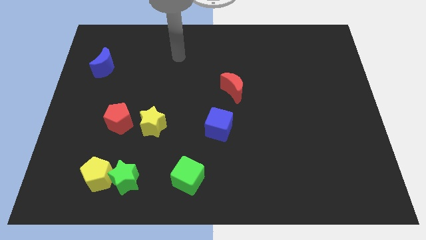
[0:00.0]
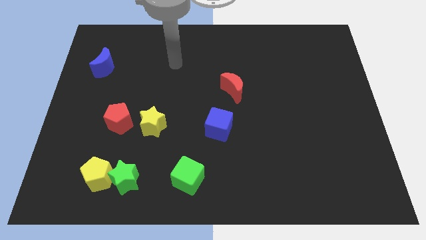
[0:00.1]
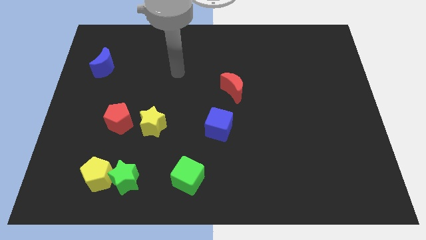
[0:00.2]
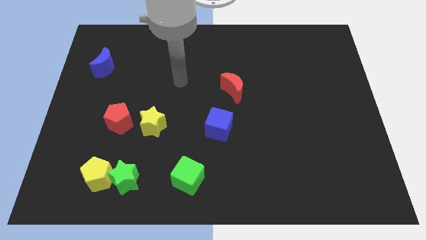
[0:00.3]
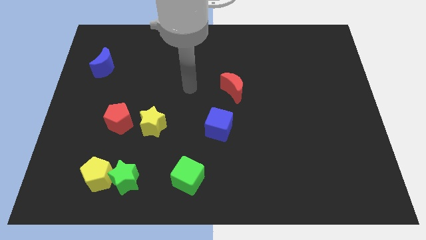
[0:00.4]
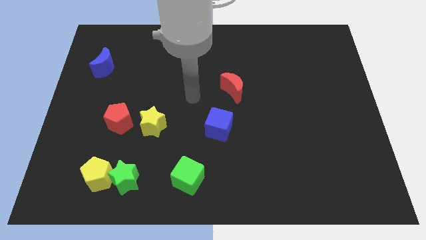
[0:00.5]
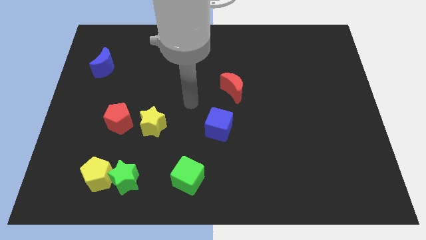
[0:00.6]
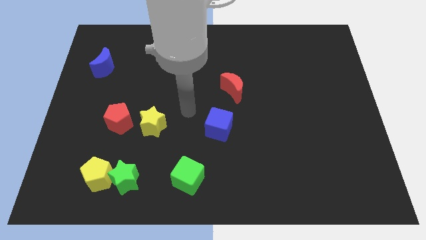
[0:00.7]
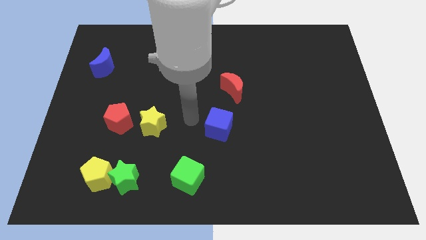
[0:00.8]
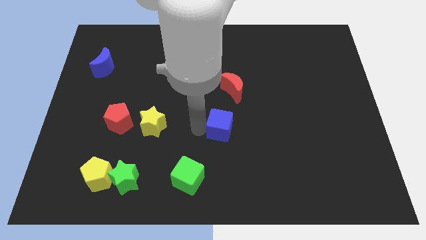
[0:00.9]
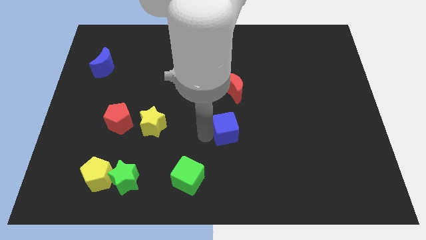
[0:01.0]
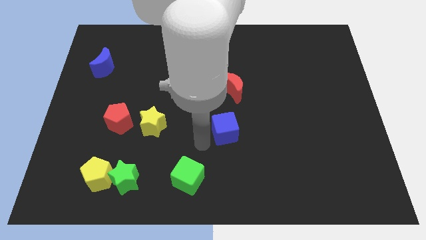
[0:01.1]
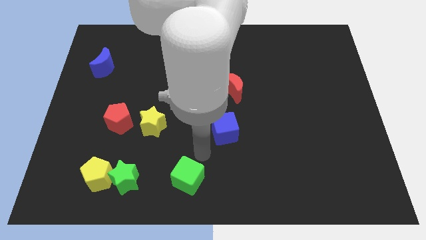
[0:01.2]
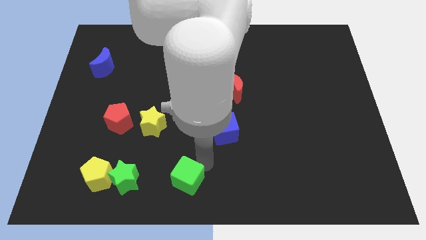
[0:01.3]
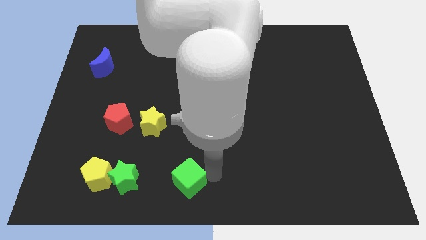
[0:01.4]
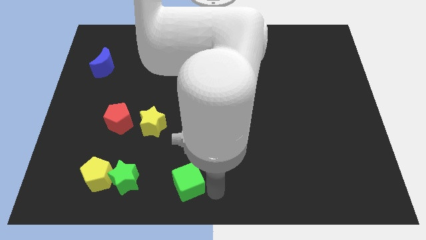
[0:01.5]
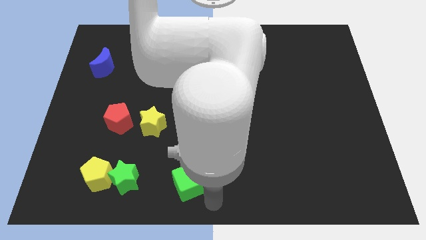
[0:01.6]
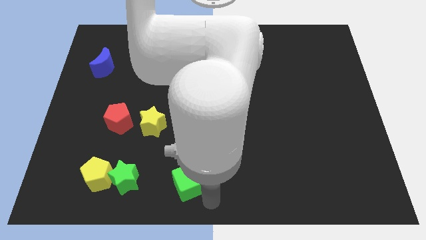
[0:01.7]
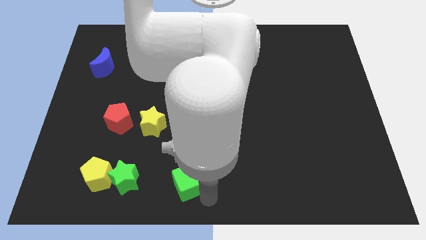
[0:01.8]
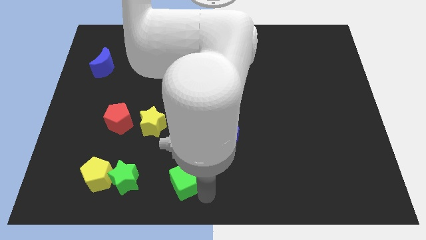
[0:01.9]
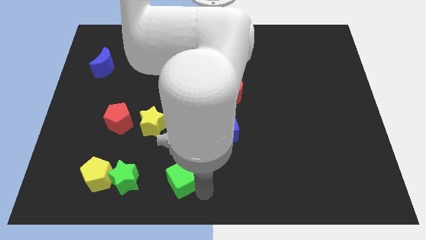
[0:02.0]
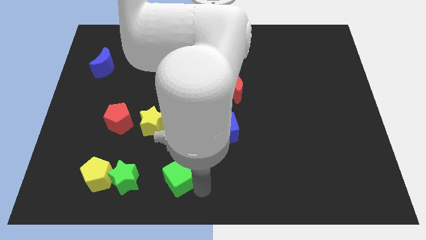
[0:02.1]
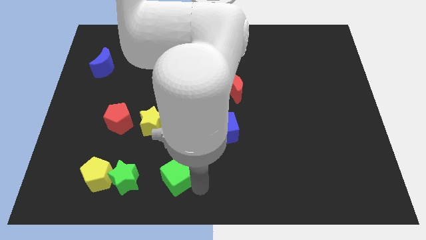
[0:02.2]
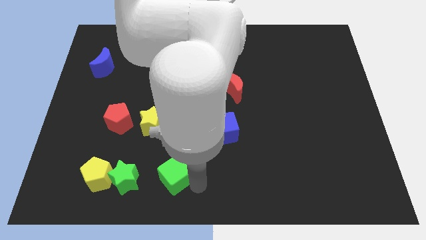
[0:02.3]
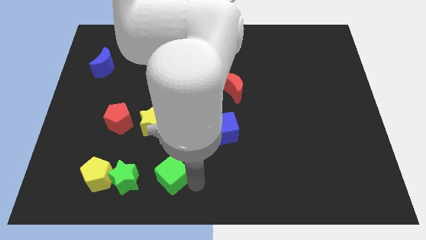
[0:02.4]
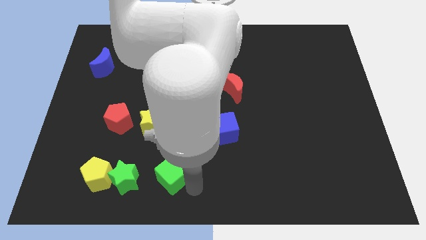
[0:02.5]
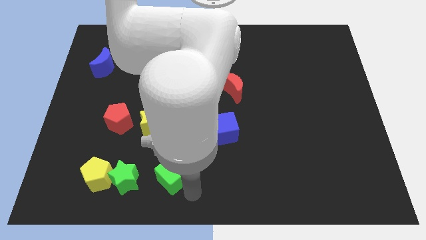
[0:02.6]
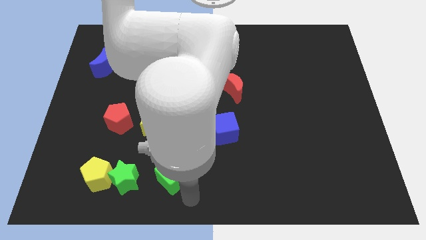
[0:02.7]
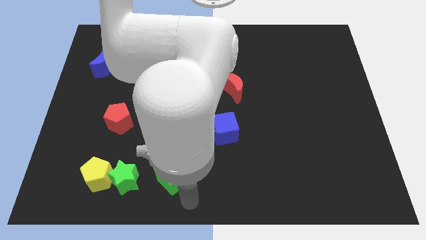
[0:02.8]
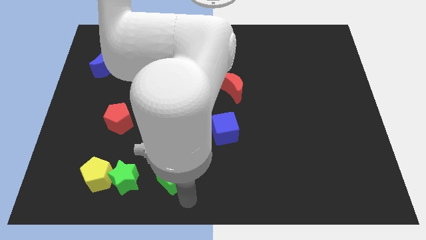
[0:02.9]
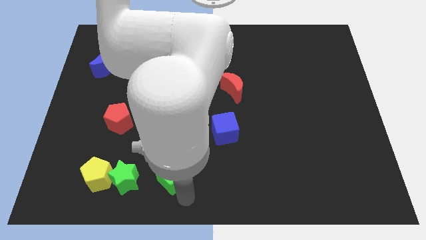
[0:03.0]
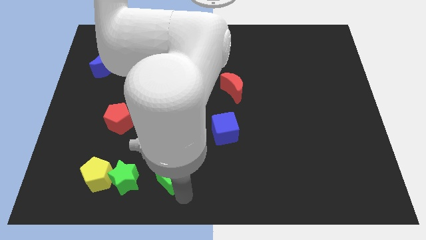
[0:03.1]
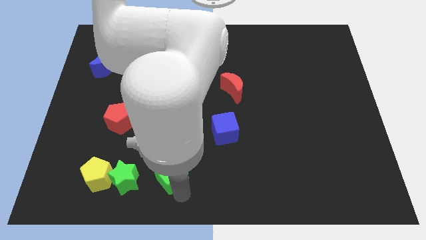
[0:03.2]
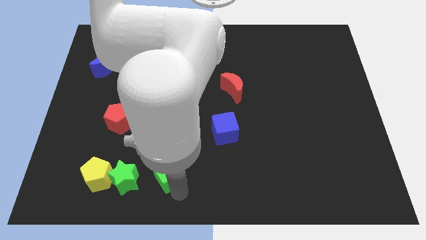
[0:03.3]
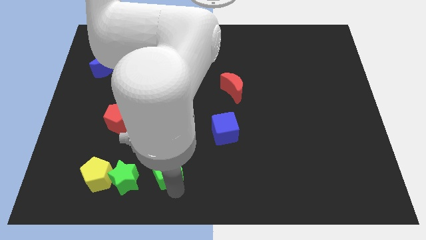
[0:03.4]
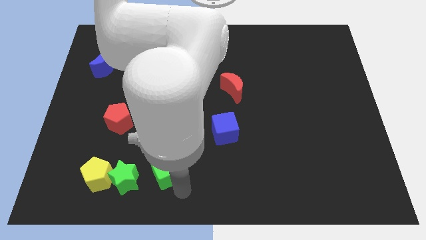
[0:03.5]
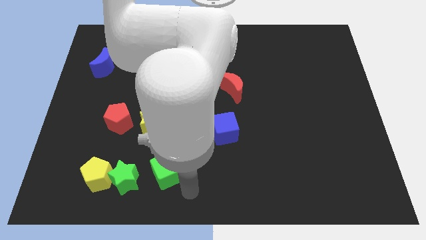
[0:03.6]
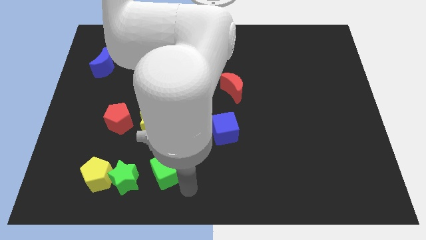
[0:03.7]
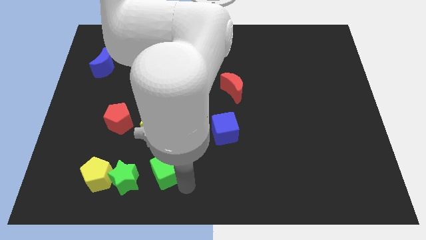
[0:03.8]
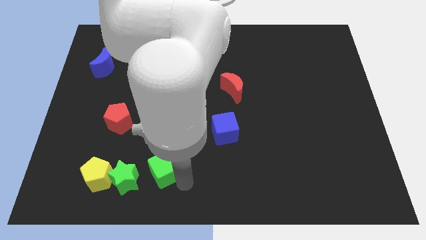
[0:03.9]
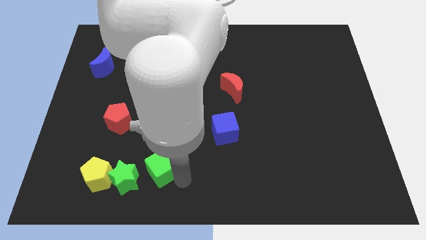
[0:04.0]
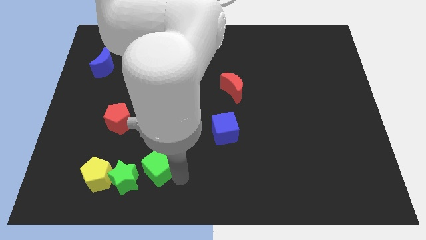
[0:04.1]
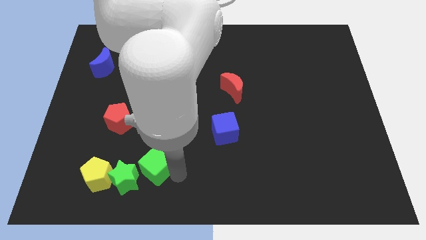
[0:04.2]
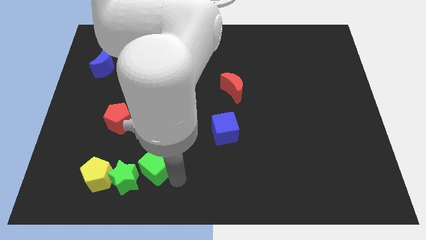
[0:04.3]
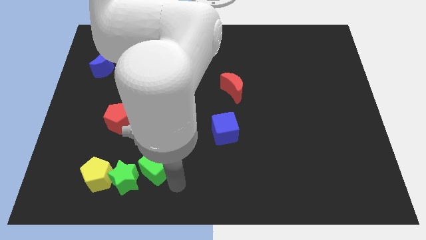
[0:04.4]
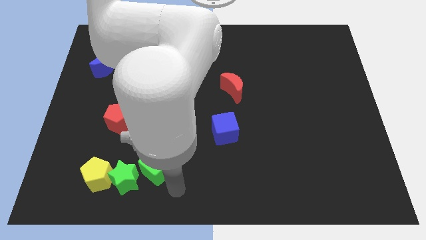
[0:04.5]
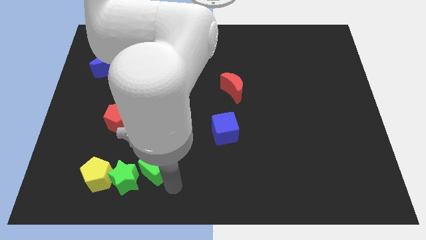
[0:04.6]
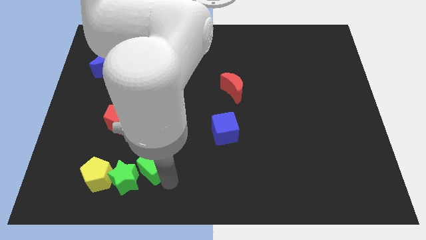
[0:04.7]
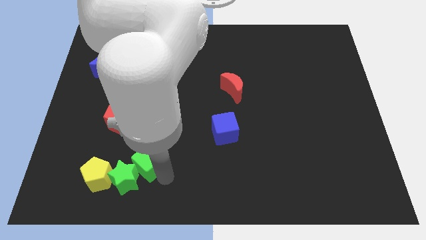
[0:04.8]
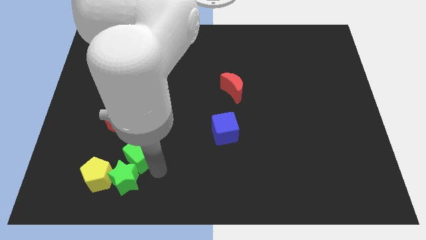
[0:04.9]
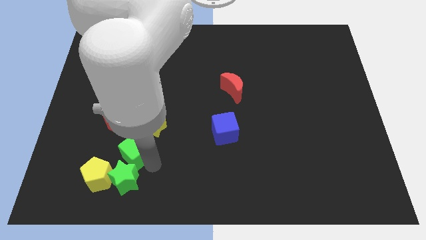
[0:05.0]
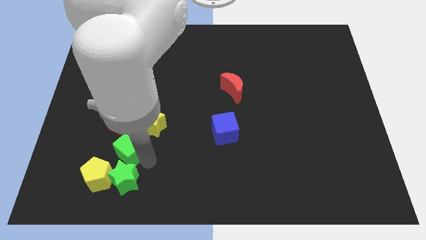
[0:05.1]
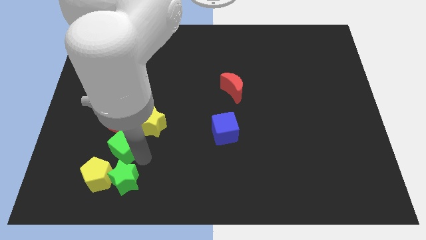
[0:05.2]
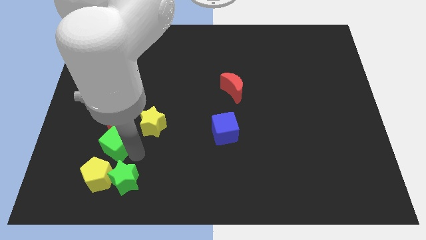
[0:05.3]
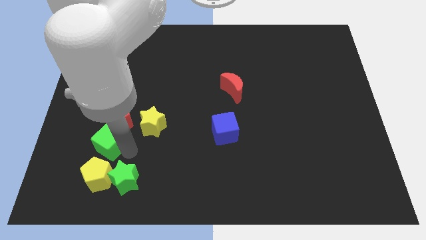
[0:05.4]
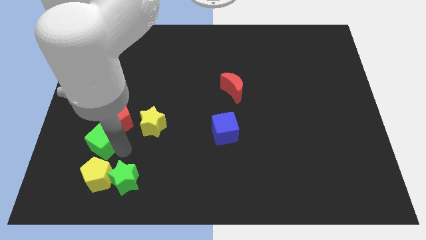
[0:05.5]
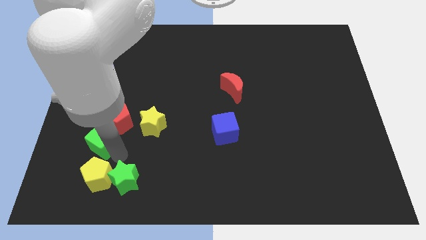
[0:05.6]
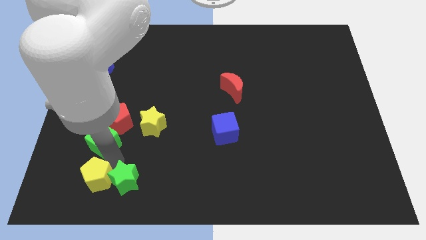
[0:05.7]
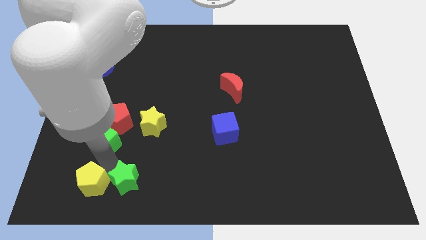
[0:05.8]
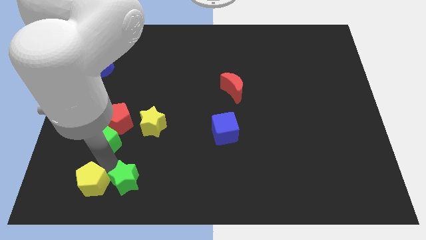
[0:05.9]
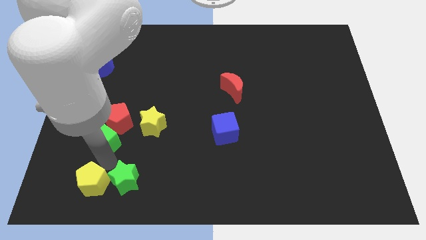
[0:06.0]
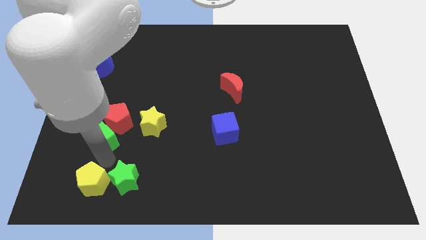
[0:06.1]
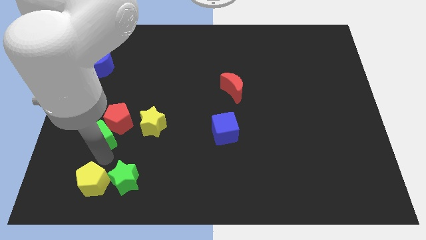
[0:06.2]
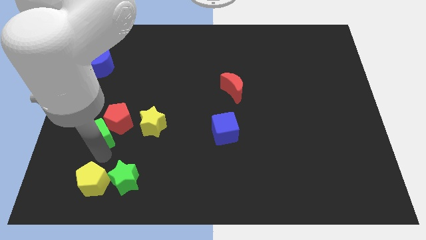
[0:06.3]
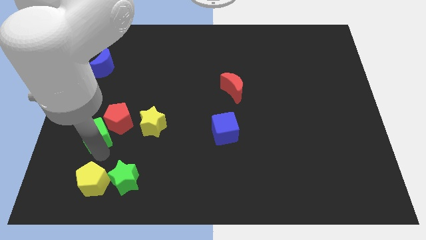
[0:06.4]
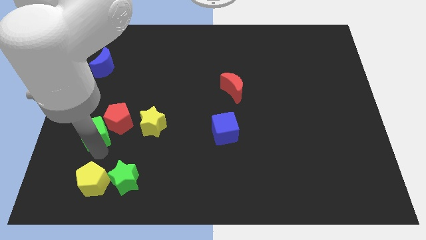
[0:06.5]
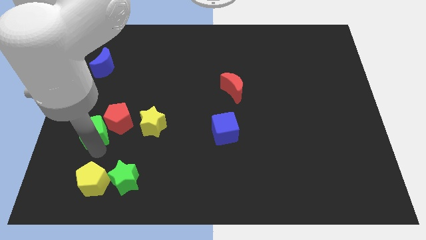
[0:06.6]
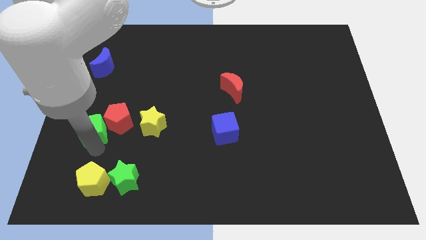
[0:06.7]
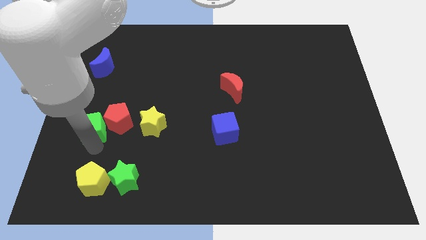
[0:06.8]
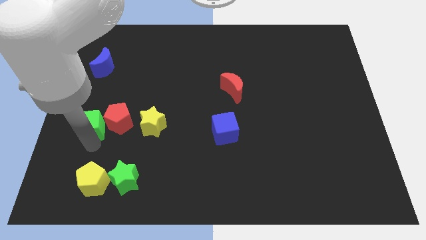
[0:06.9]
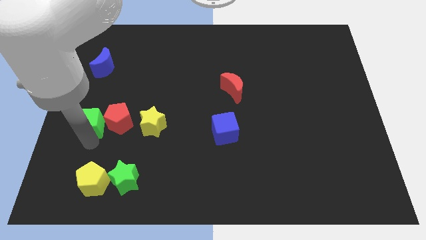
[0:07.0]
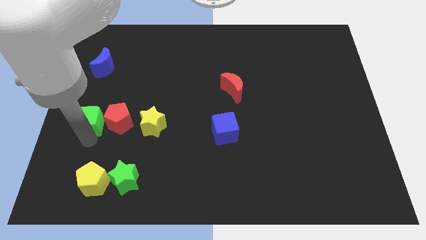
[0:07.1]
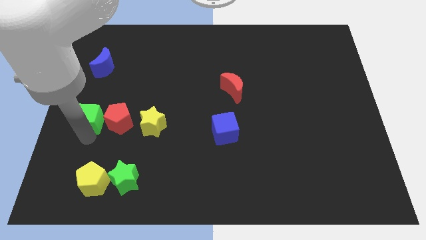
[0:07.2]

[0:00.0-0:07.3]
slide the green cube to the top left side of the red pentagon

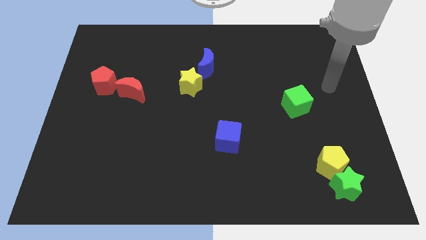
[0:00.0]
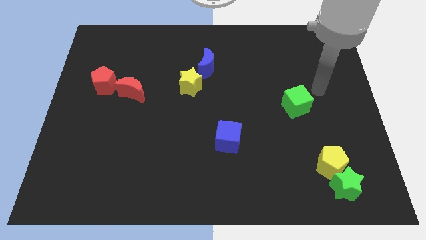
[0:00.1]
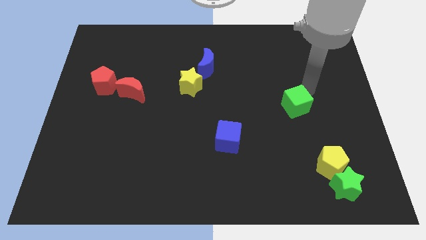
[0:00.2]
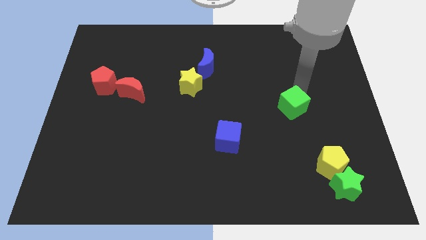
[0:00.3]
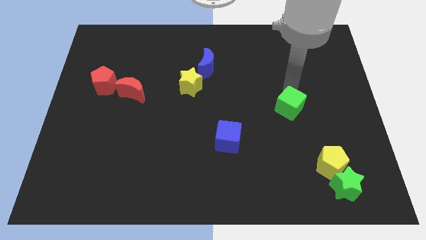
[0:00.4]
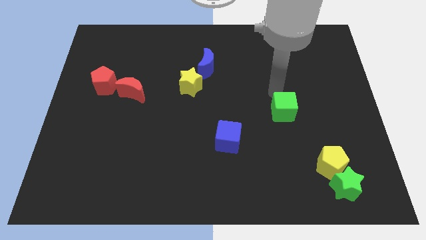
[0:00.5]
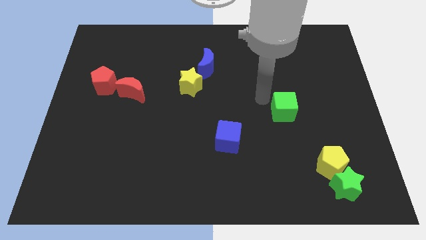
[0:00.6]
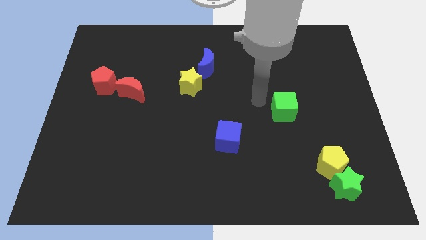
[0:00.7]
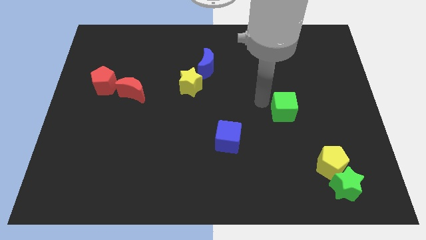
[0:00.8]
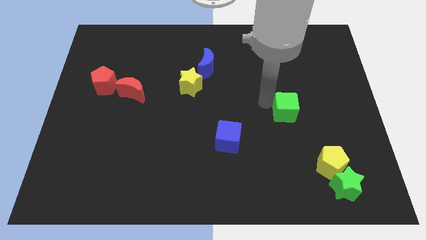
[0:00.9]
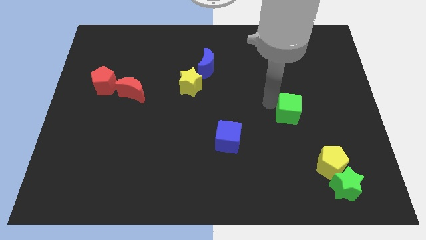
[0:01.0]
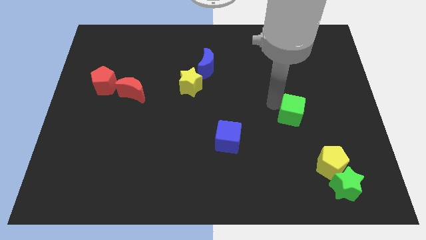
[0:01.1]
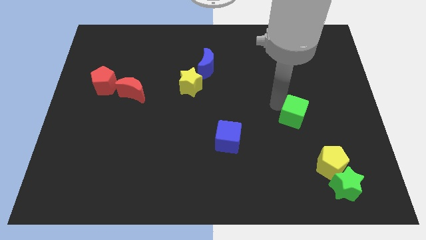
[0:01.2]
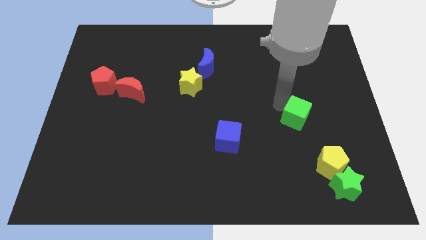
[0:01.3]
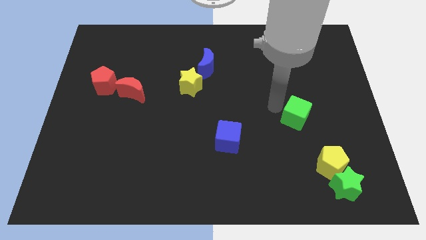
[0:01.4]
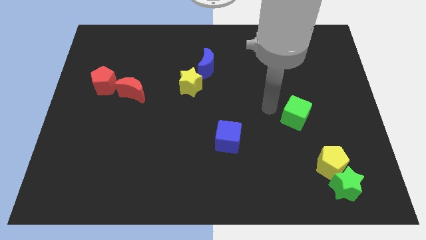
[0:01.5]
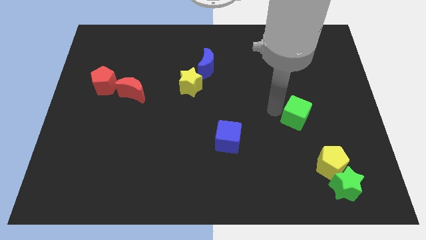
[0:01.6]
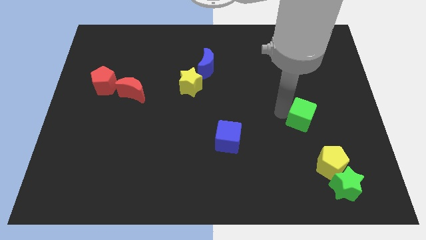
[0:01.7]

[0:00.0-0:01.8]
slide the green cube above the yellow pentagon
